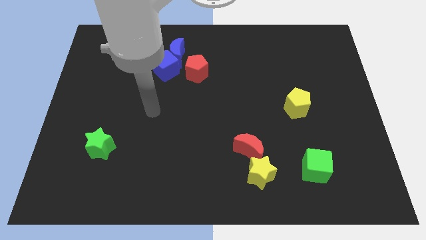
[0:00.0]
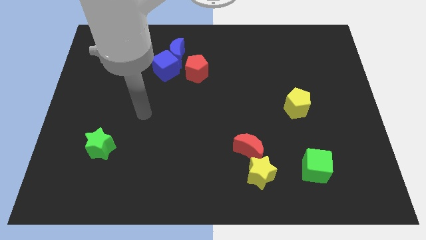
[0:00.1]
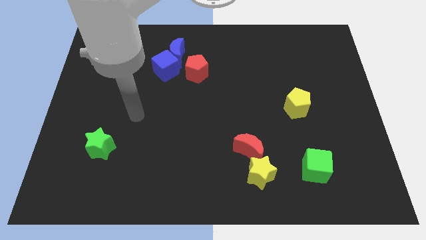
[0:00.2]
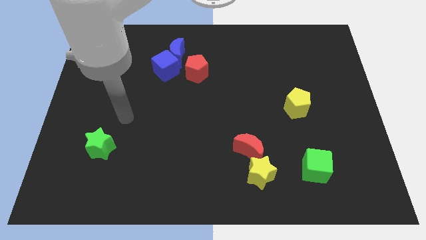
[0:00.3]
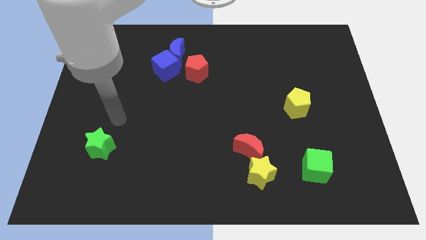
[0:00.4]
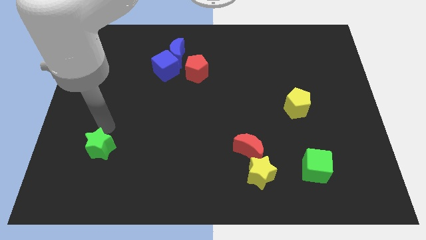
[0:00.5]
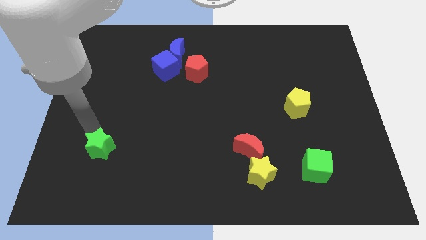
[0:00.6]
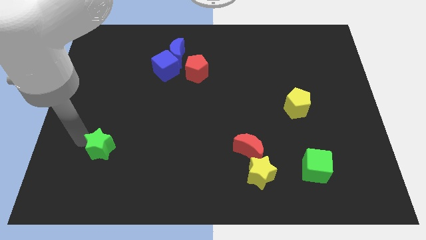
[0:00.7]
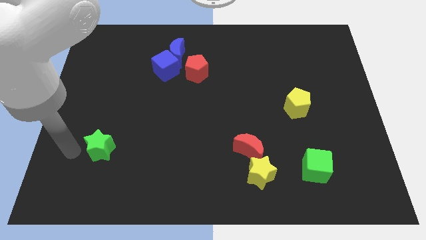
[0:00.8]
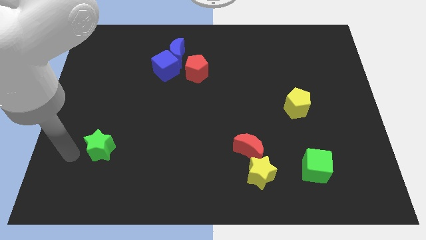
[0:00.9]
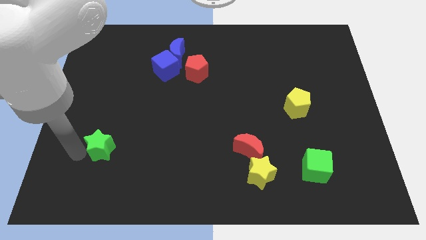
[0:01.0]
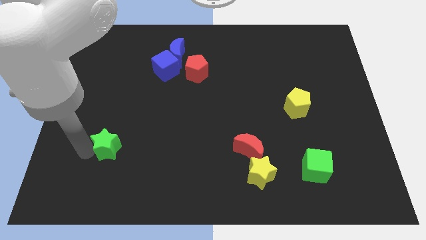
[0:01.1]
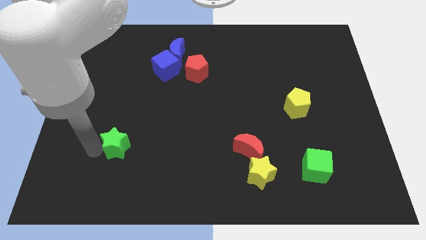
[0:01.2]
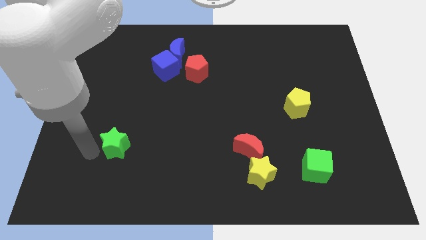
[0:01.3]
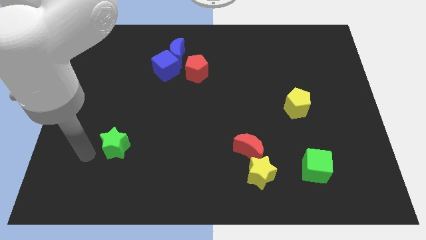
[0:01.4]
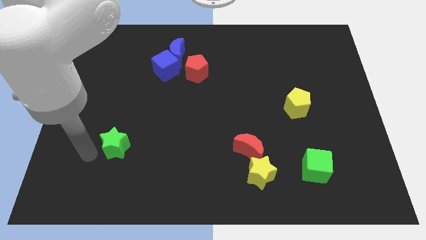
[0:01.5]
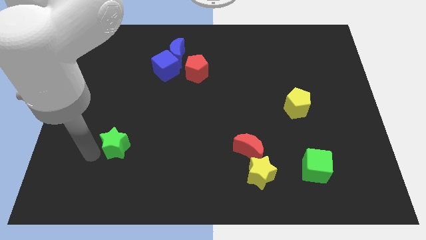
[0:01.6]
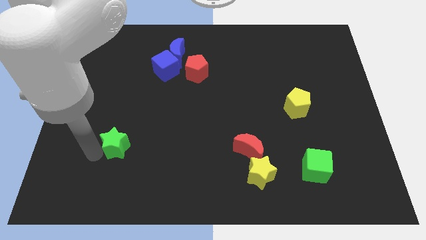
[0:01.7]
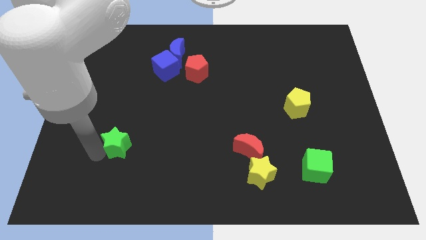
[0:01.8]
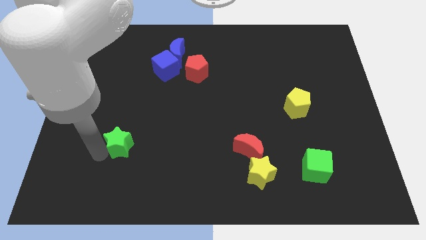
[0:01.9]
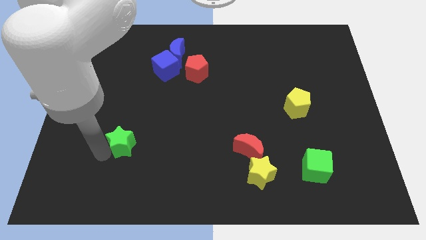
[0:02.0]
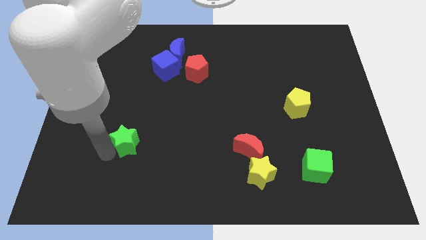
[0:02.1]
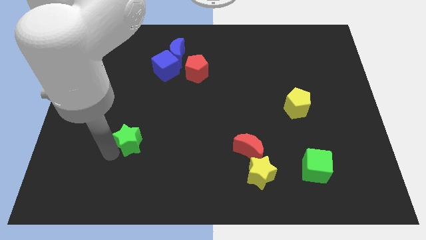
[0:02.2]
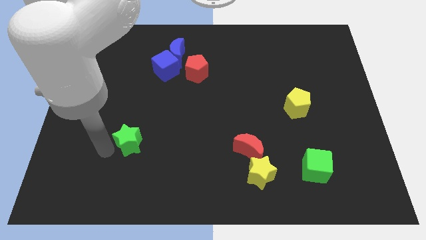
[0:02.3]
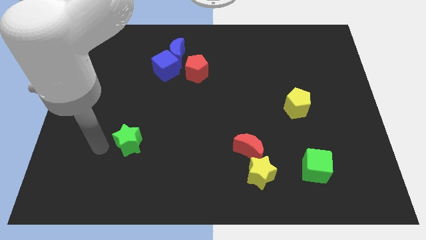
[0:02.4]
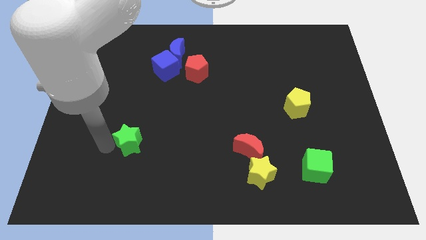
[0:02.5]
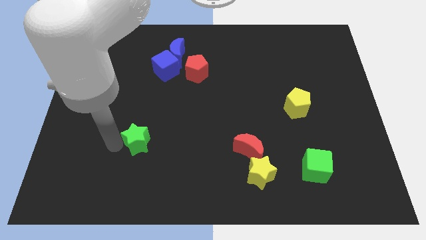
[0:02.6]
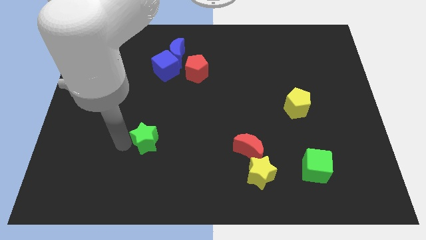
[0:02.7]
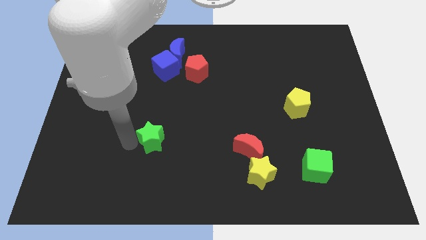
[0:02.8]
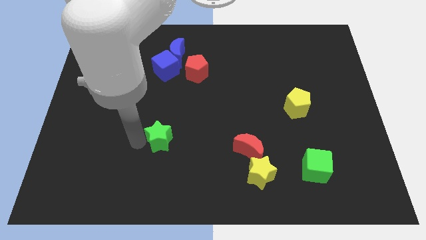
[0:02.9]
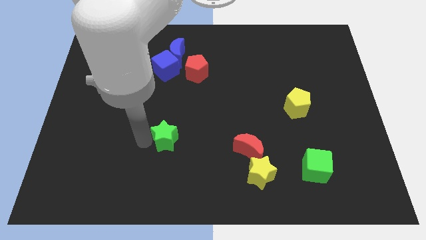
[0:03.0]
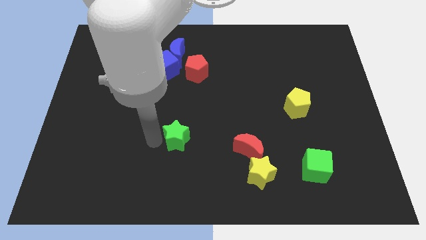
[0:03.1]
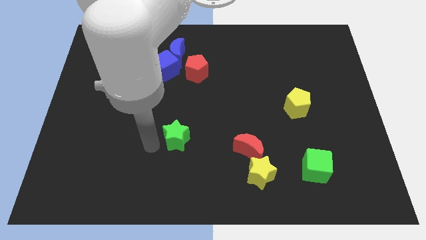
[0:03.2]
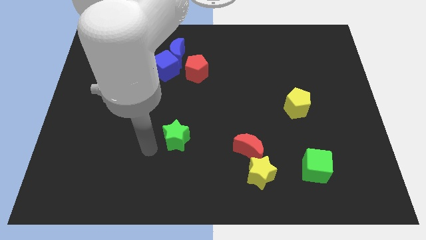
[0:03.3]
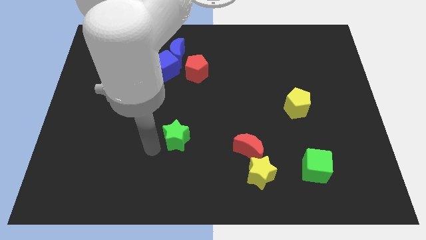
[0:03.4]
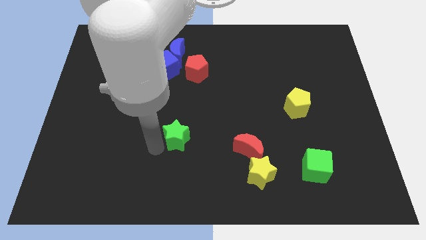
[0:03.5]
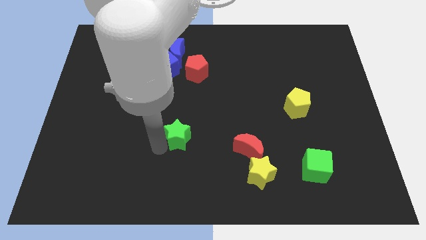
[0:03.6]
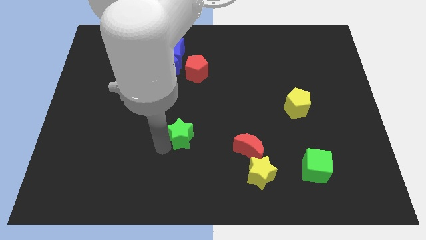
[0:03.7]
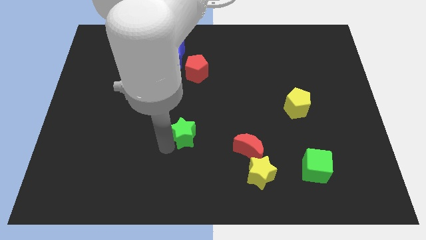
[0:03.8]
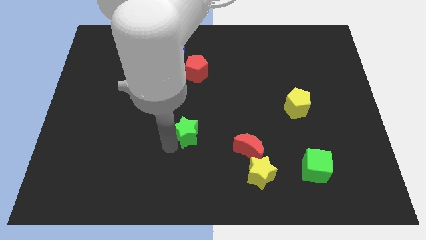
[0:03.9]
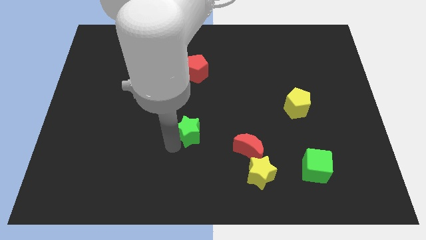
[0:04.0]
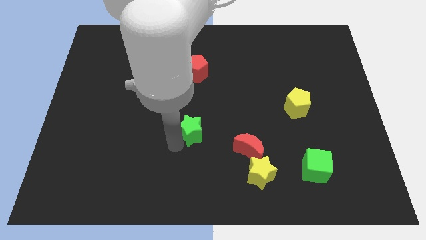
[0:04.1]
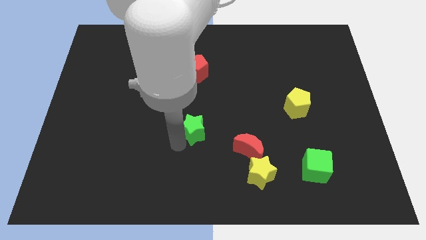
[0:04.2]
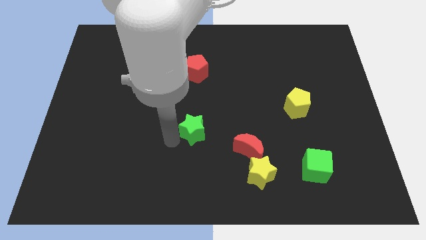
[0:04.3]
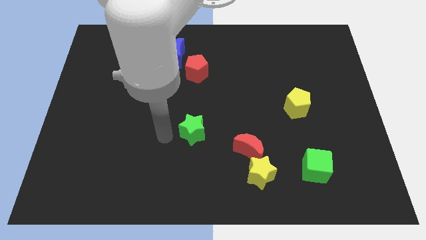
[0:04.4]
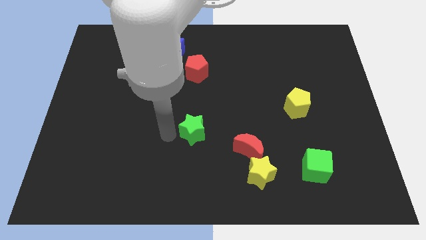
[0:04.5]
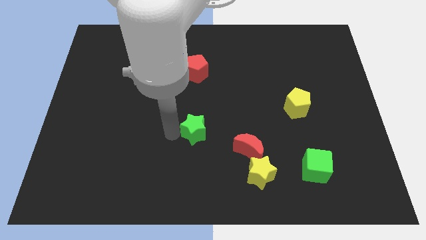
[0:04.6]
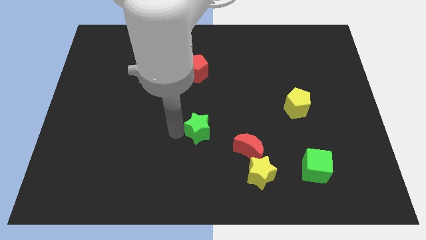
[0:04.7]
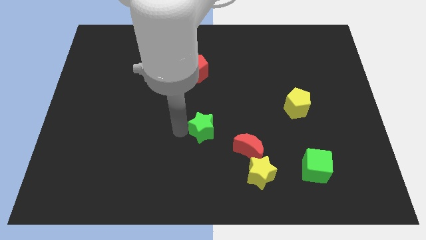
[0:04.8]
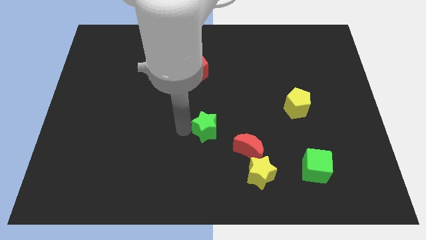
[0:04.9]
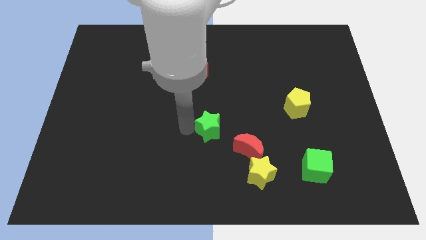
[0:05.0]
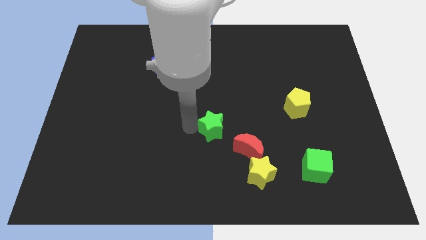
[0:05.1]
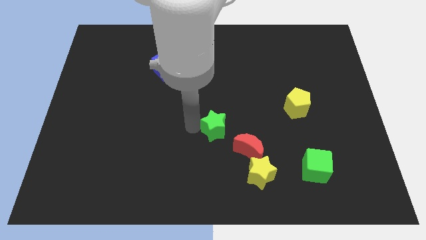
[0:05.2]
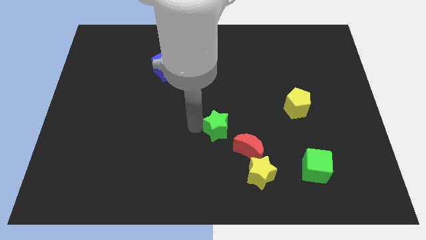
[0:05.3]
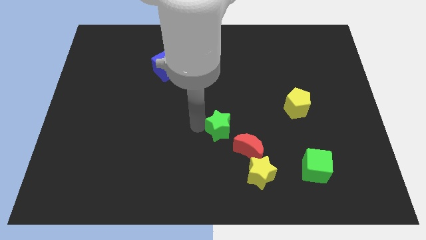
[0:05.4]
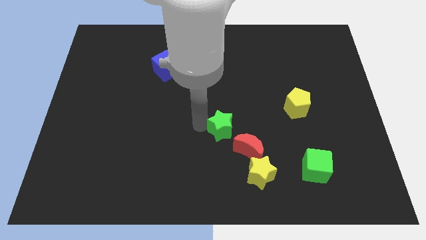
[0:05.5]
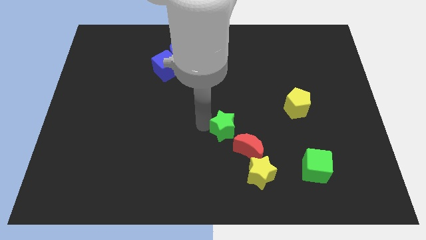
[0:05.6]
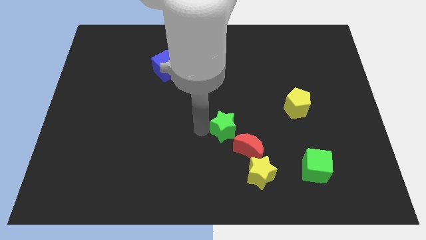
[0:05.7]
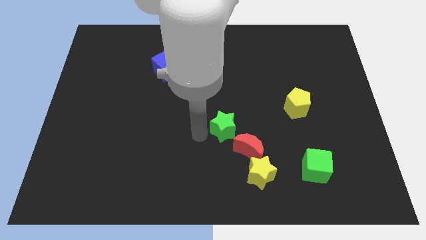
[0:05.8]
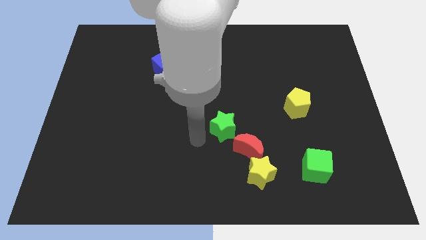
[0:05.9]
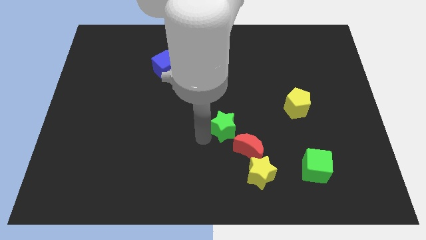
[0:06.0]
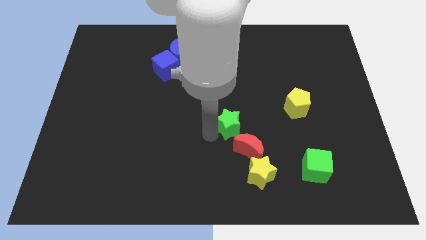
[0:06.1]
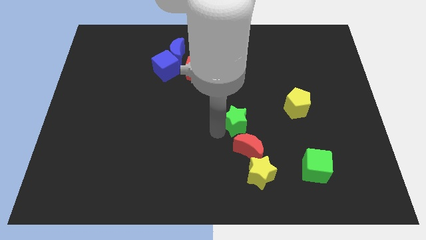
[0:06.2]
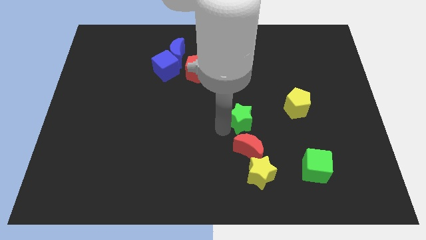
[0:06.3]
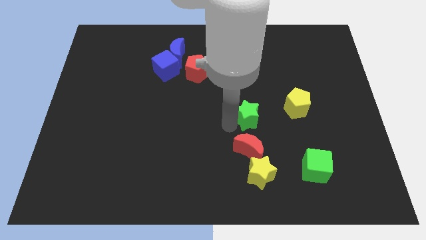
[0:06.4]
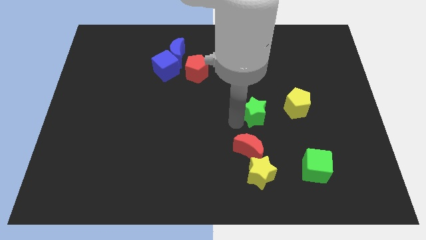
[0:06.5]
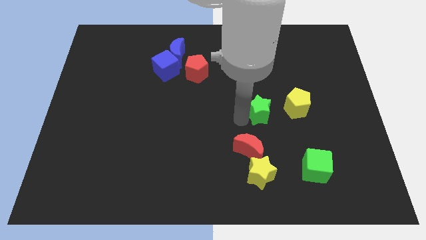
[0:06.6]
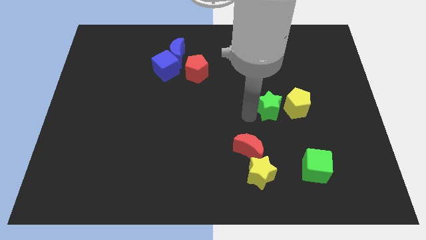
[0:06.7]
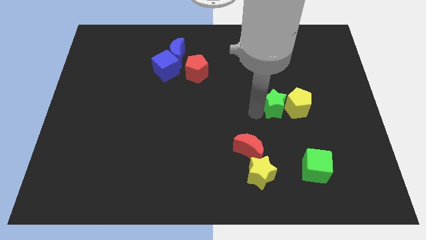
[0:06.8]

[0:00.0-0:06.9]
move the green star next to the yellow pentagon
